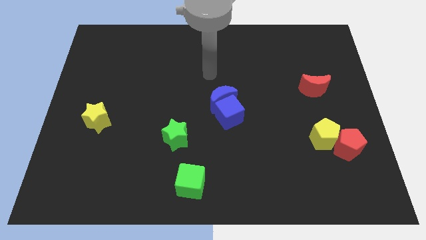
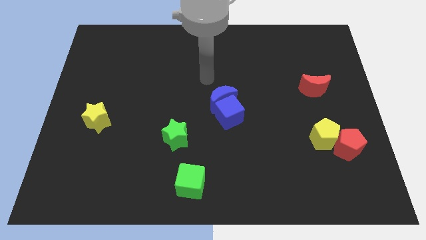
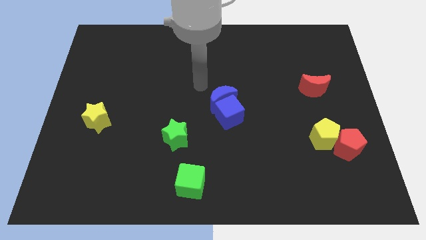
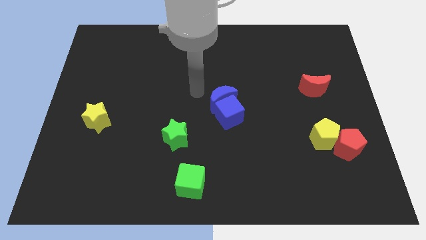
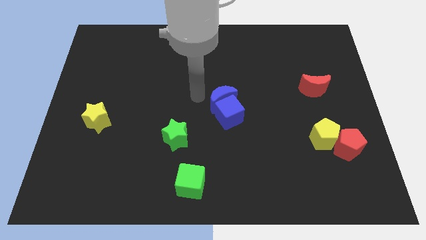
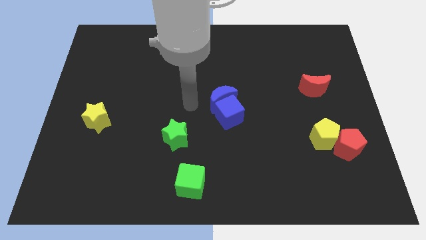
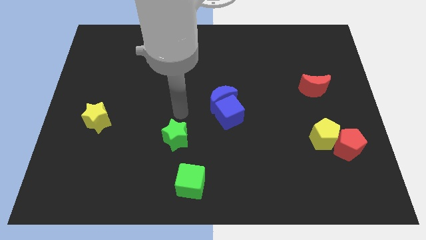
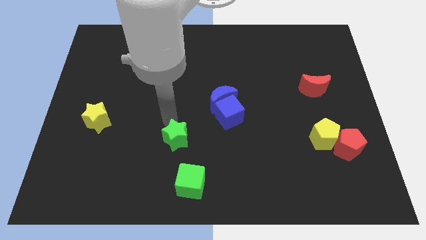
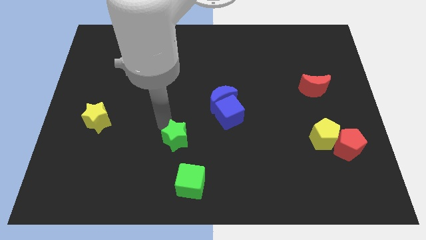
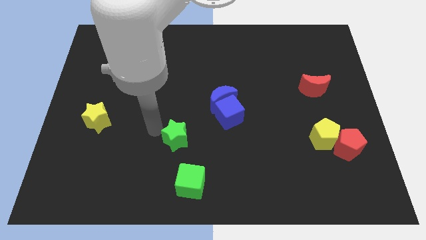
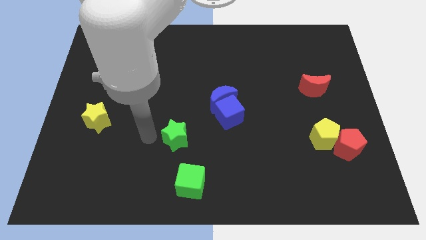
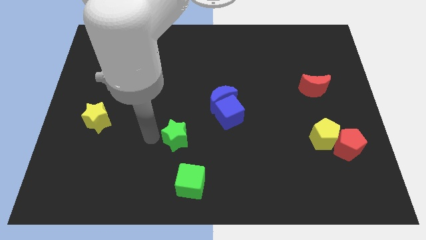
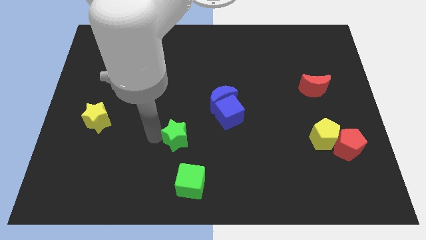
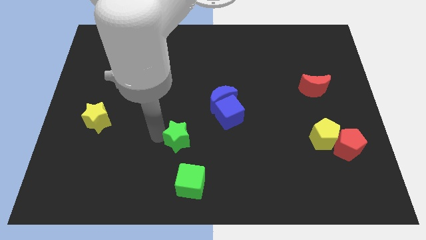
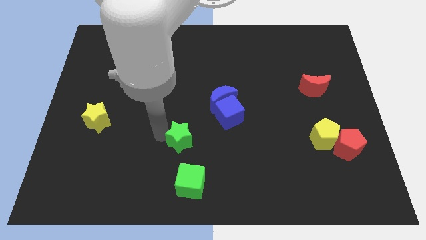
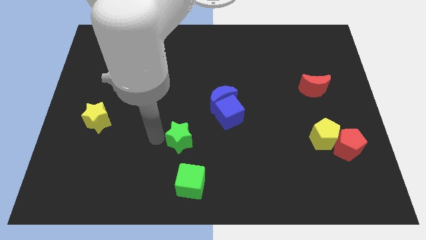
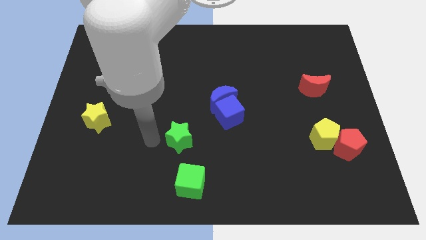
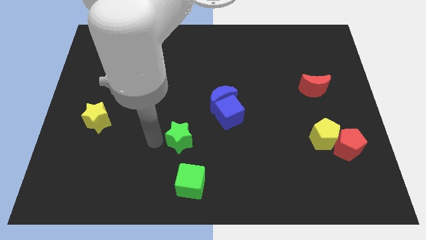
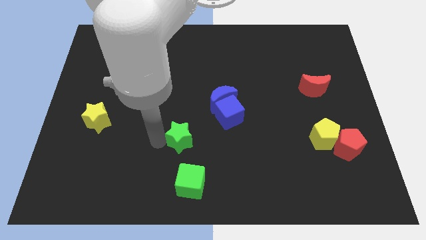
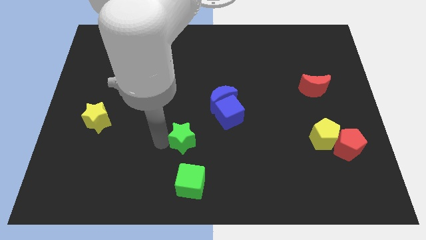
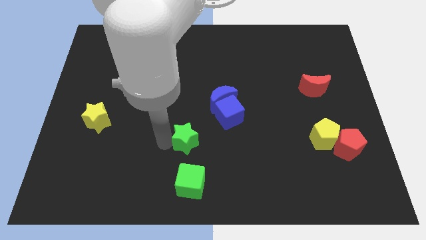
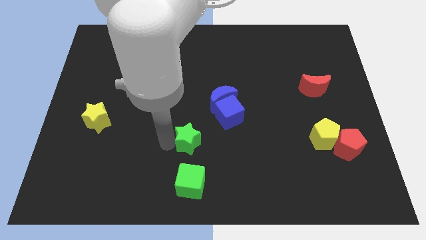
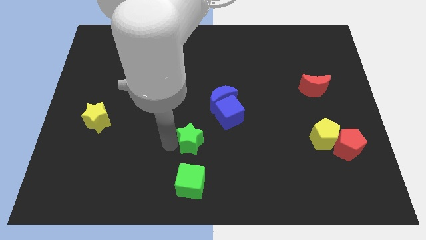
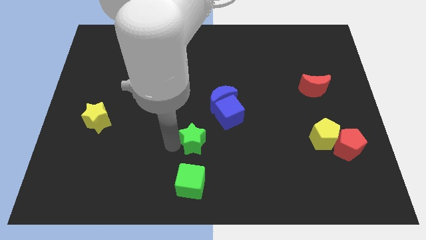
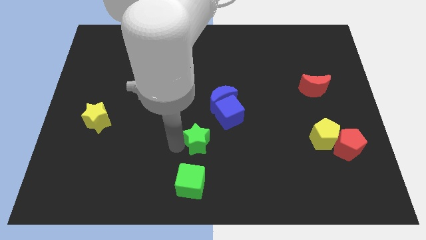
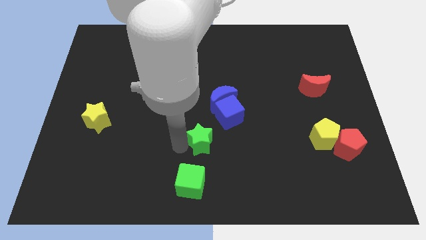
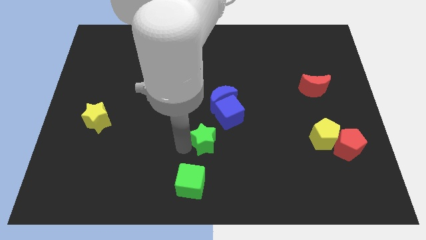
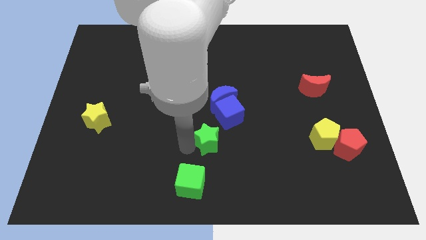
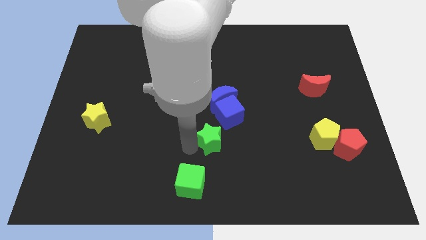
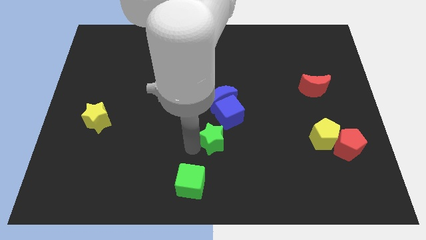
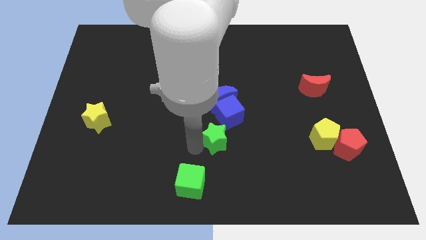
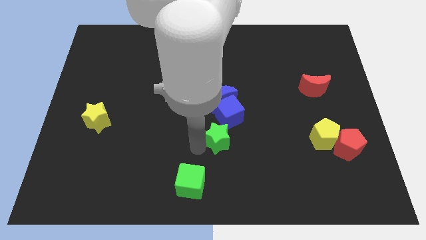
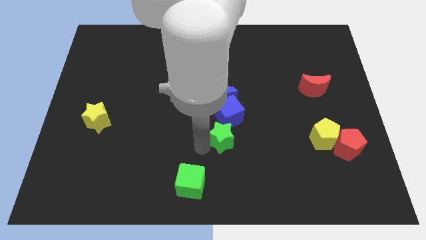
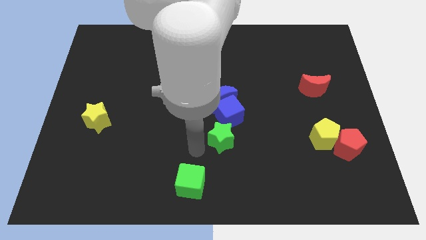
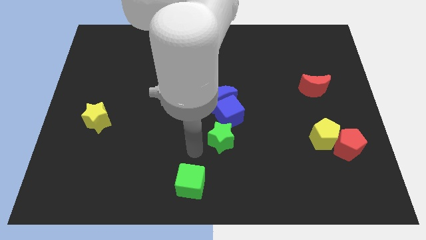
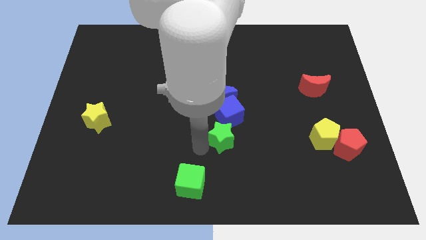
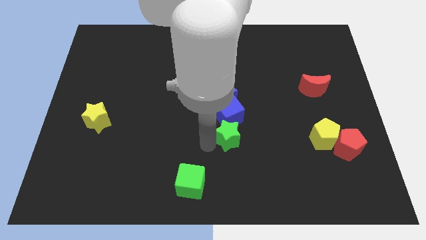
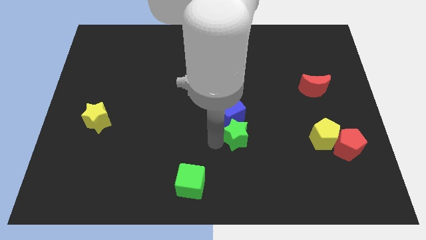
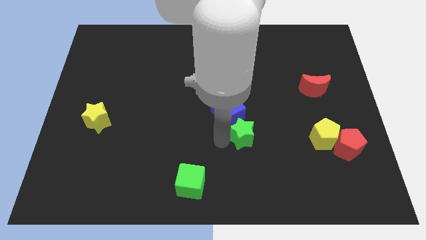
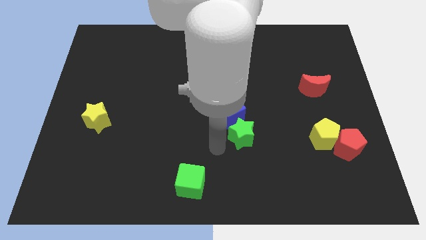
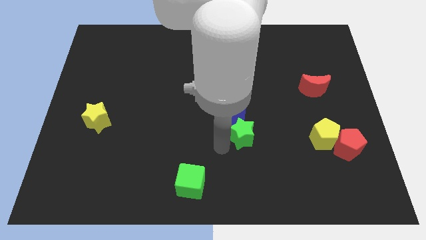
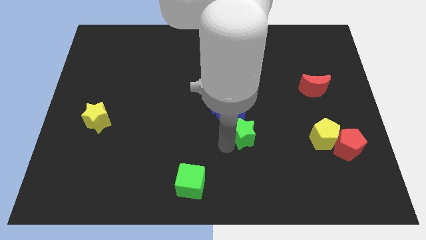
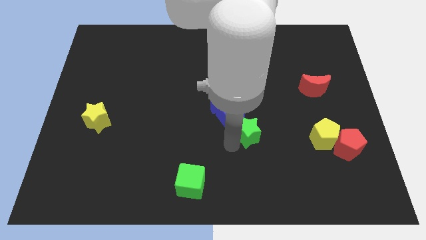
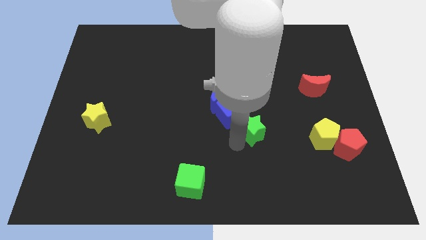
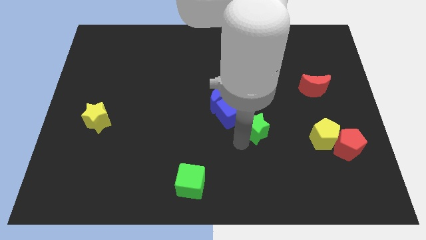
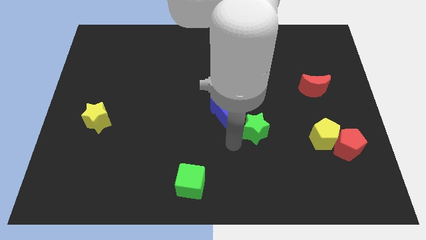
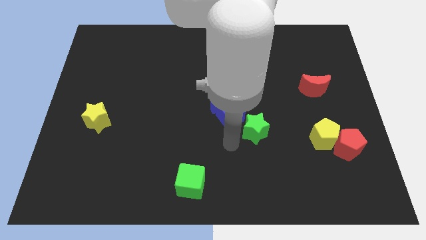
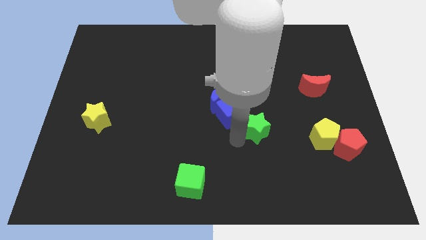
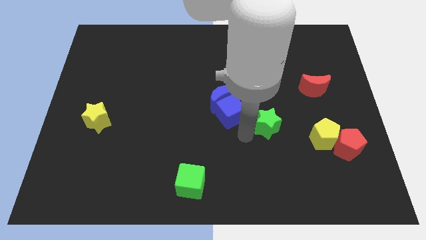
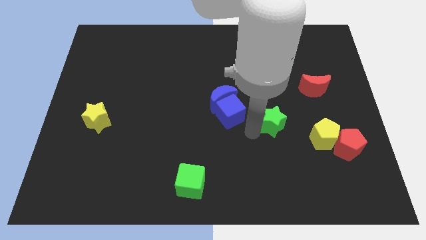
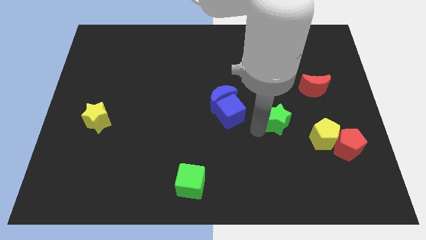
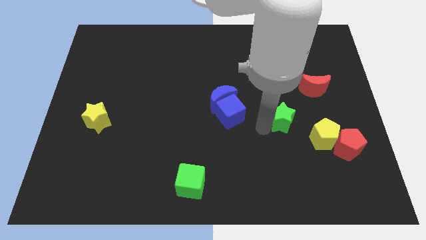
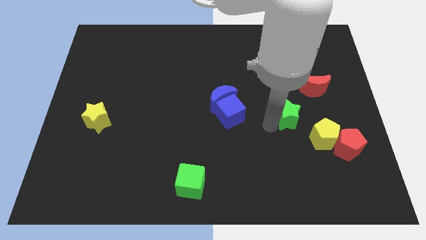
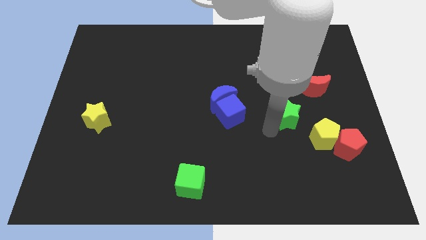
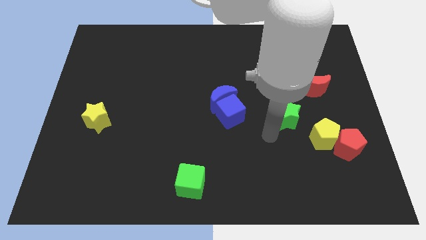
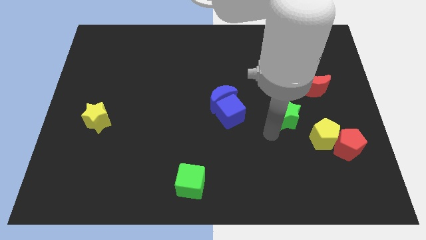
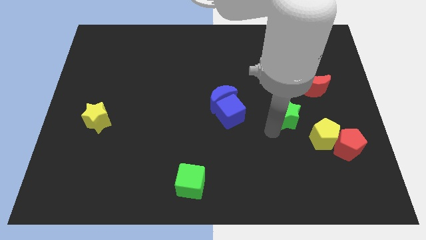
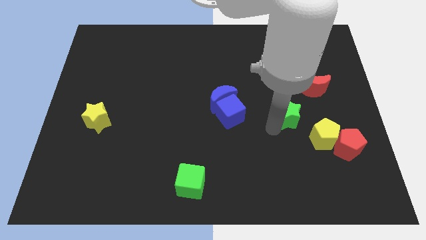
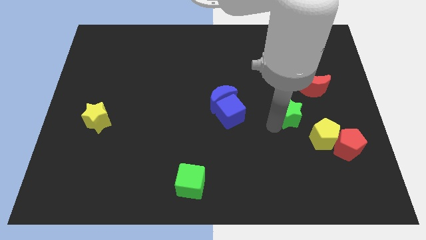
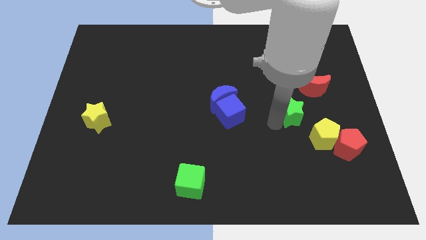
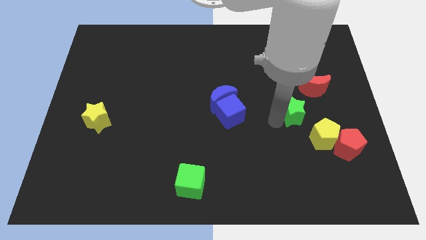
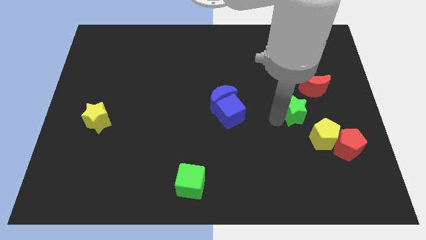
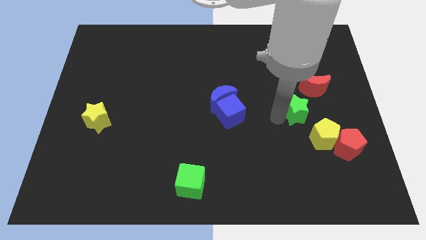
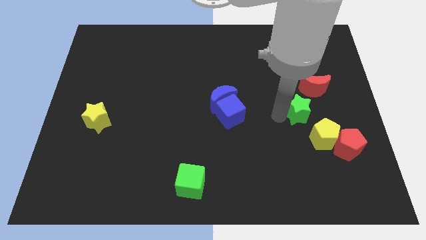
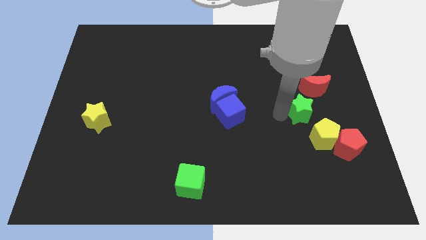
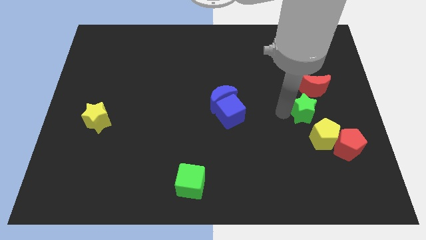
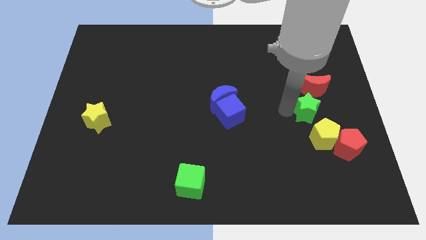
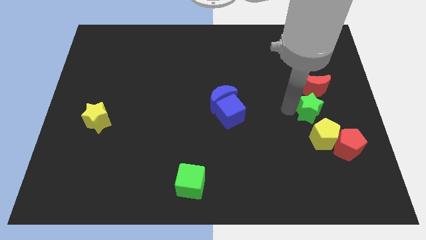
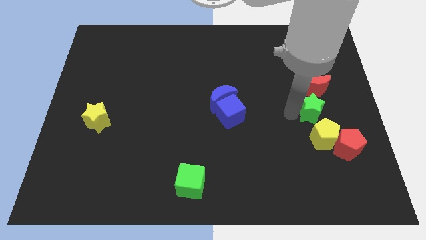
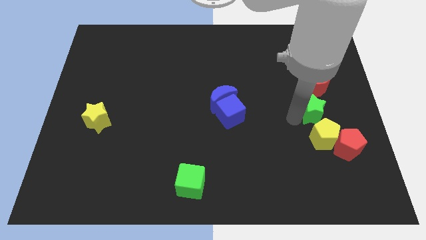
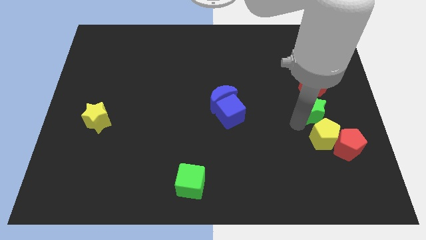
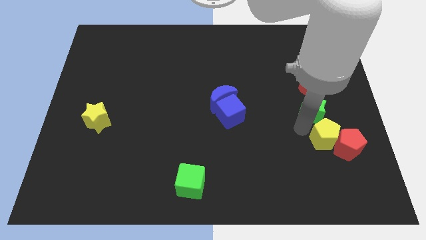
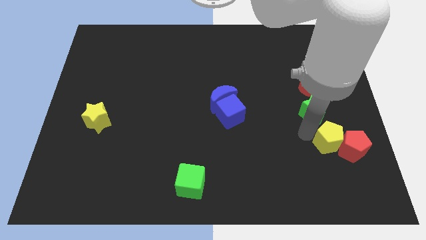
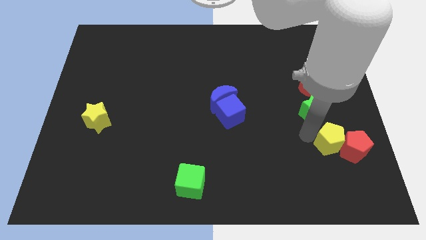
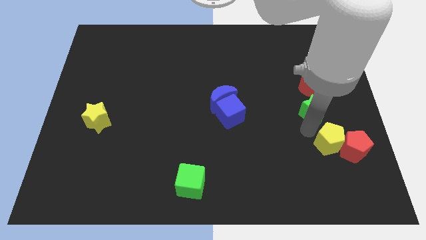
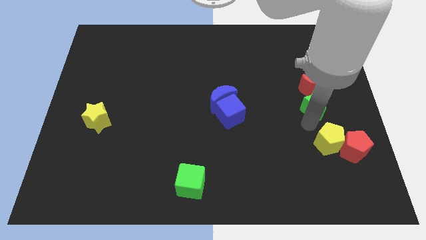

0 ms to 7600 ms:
slide the green star close to the red moon
